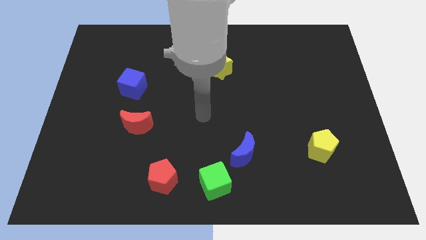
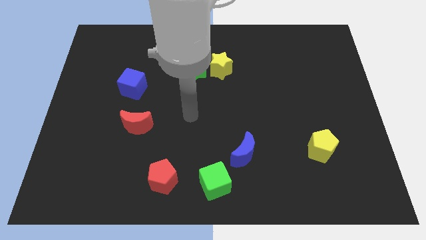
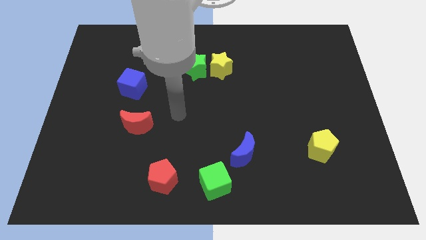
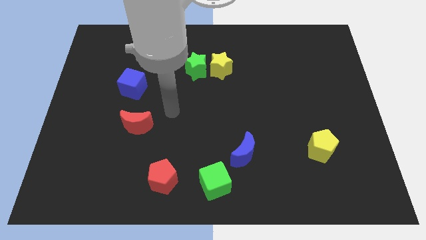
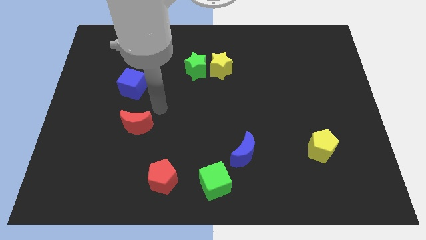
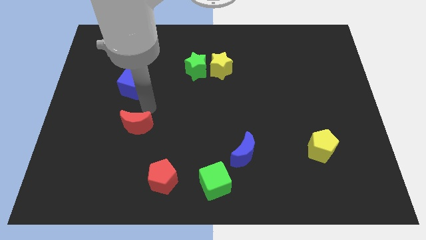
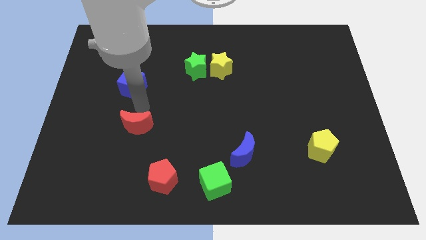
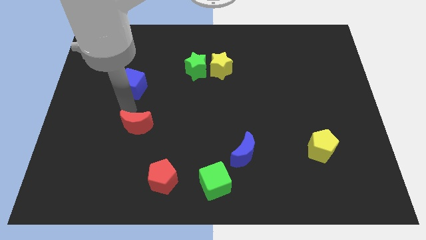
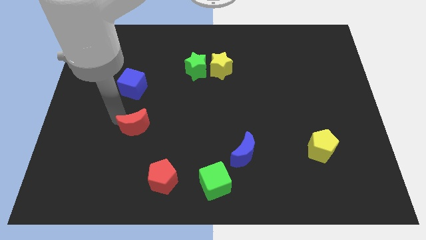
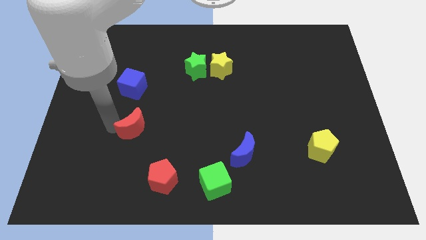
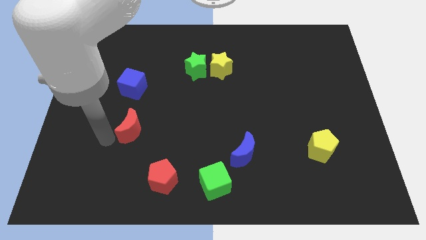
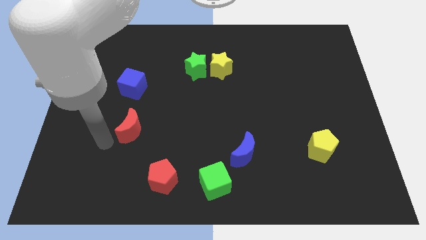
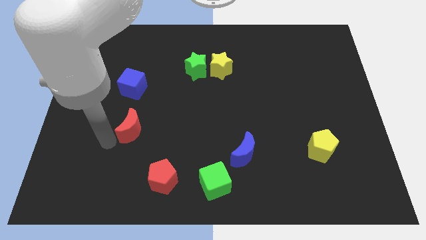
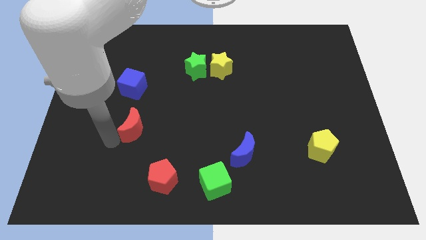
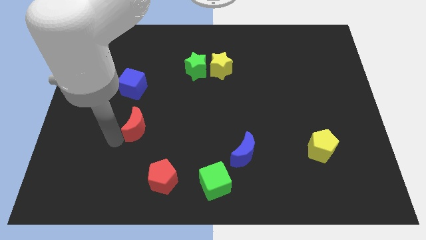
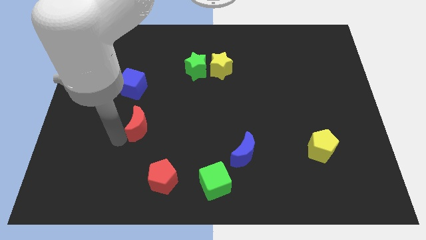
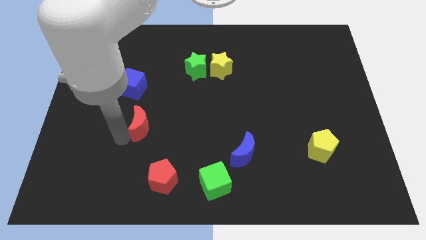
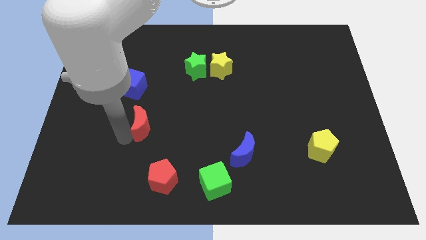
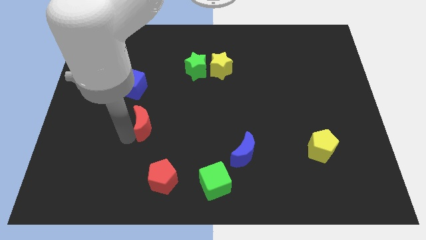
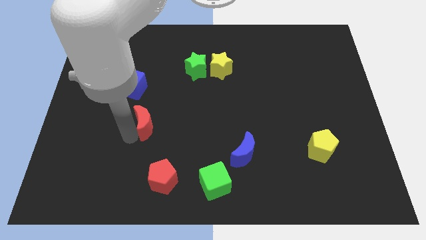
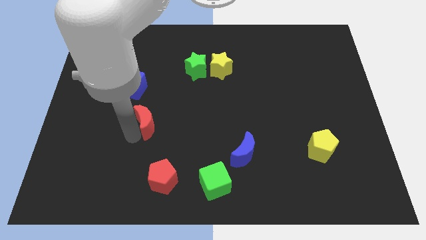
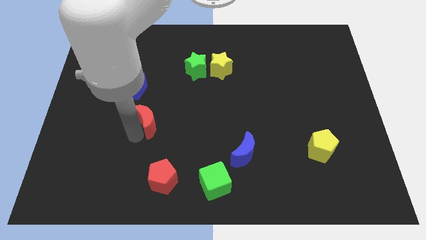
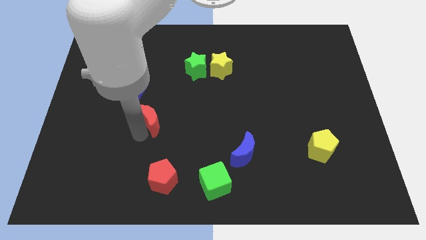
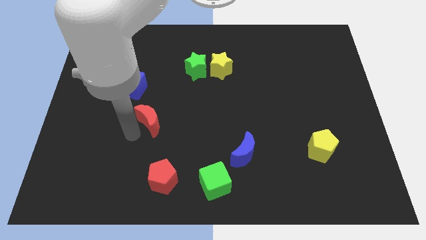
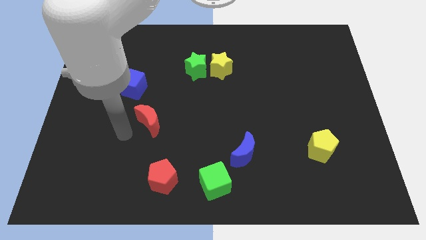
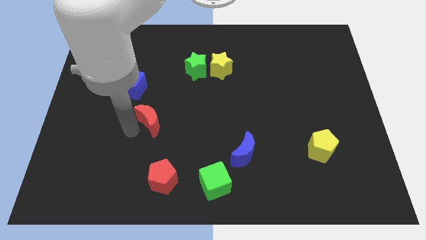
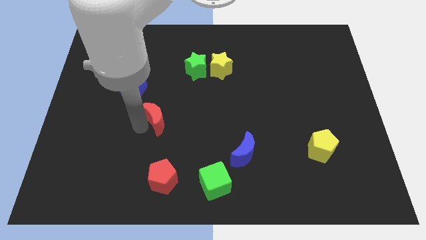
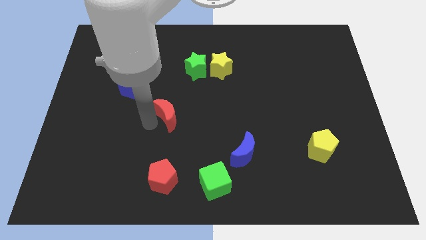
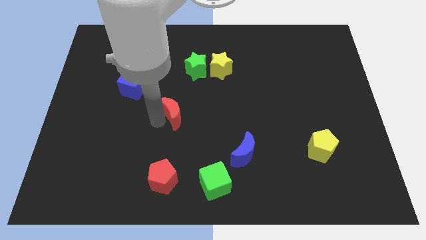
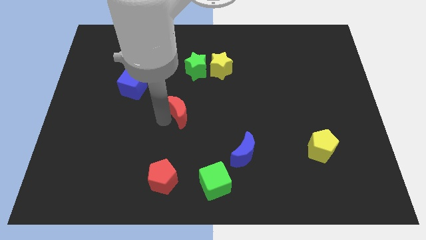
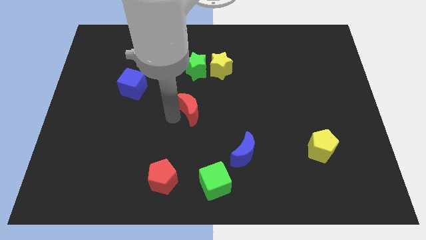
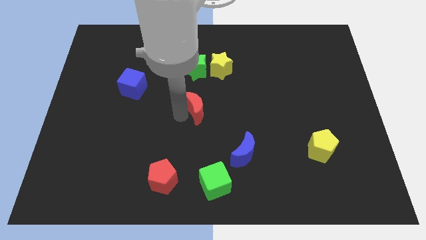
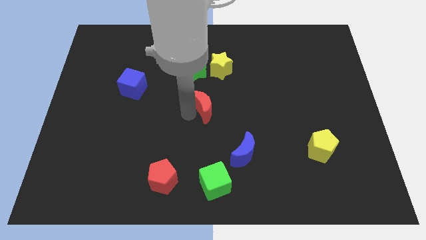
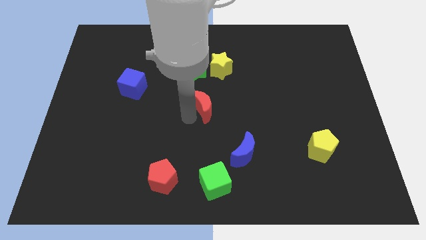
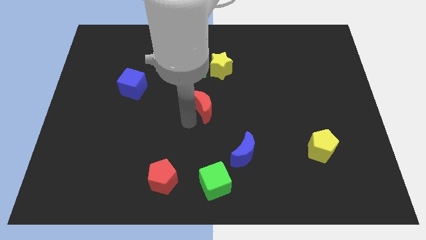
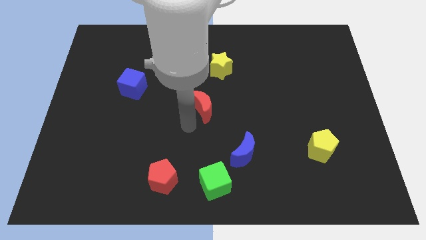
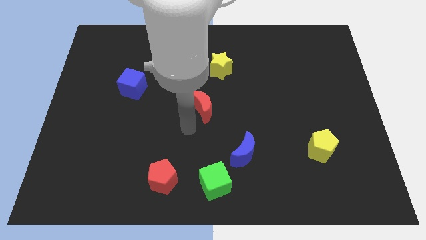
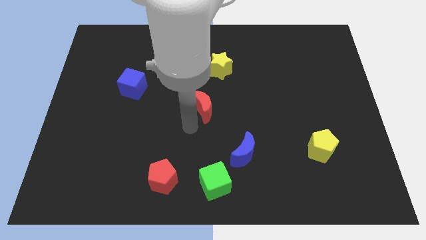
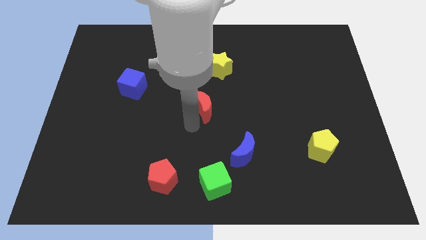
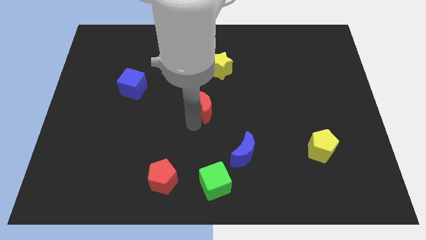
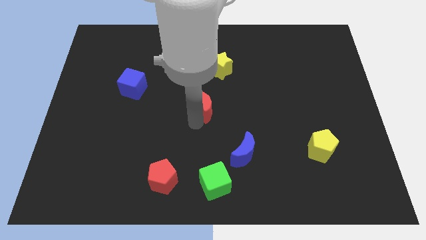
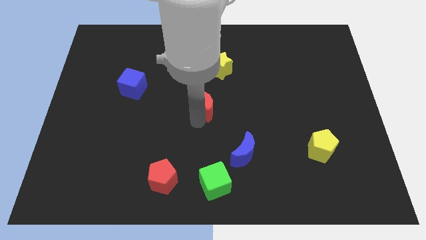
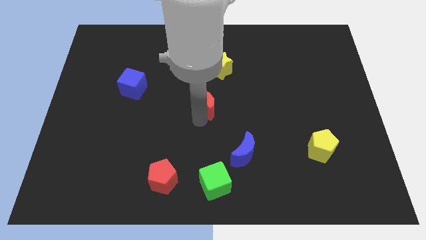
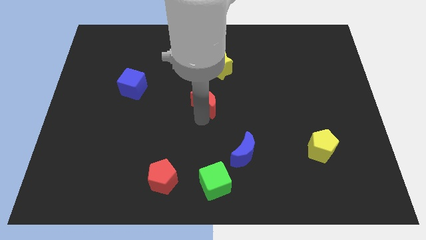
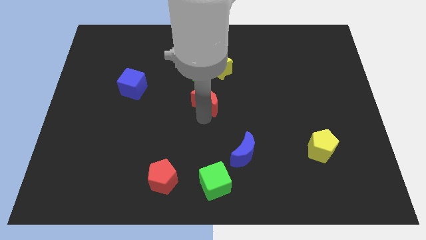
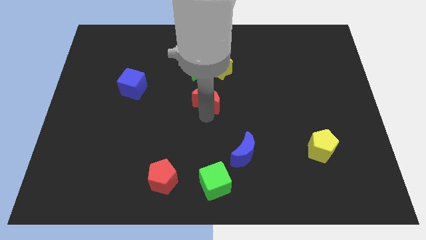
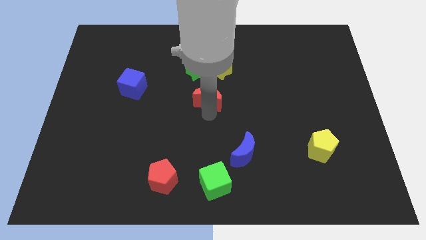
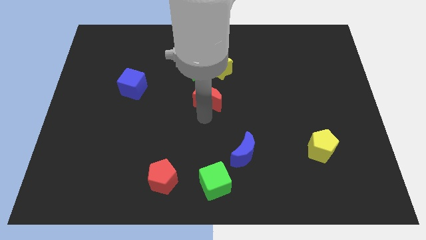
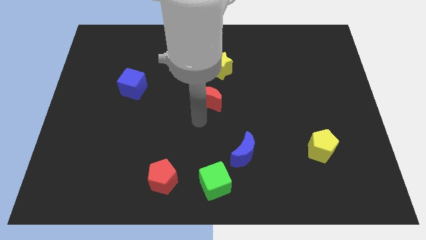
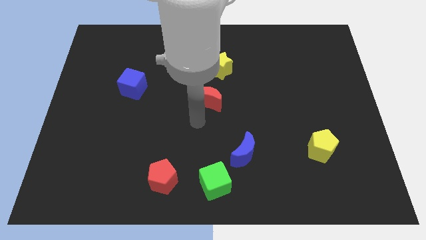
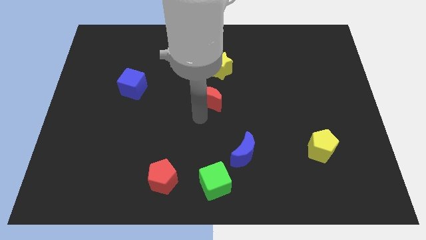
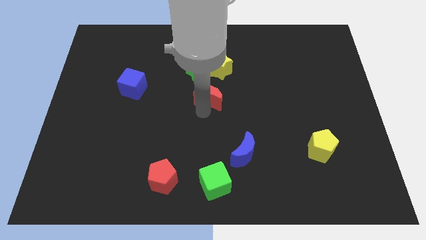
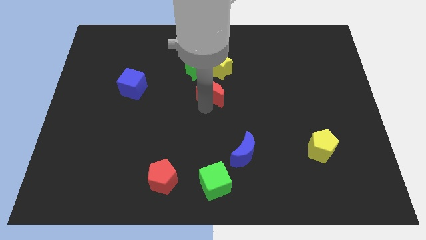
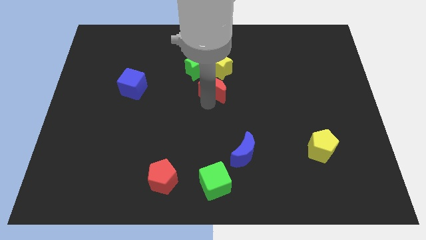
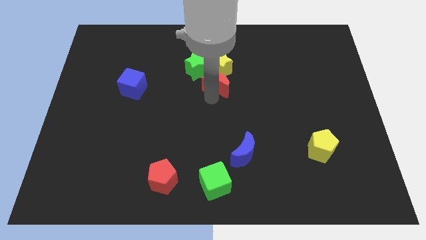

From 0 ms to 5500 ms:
push the red moon towards the yellow star

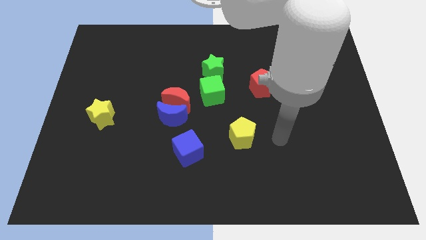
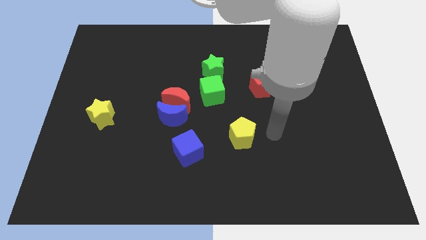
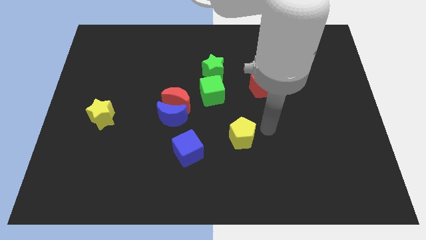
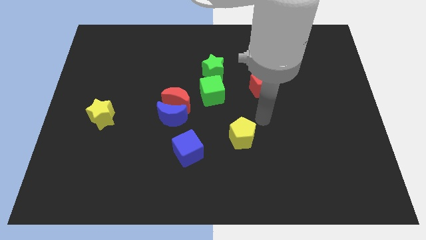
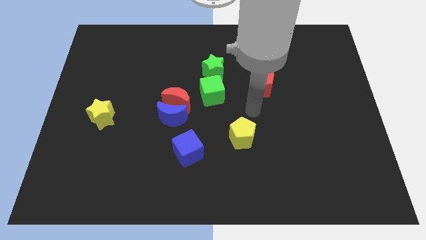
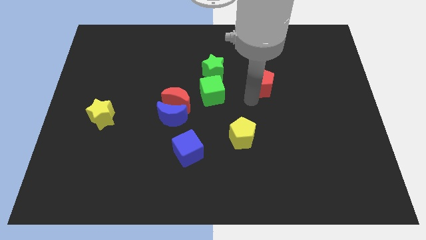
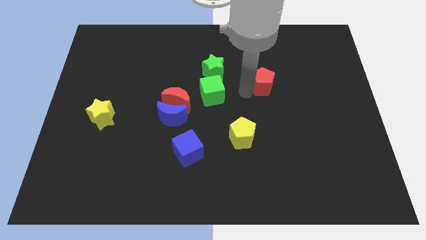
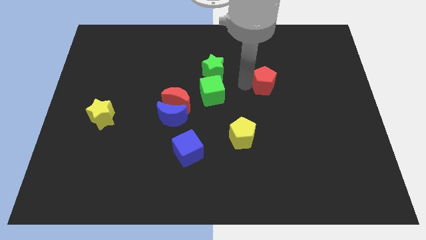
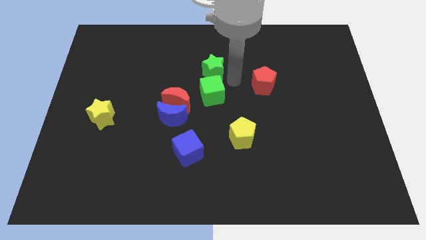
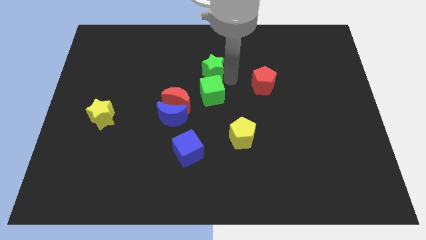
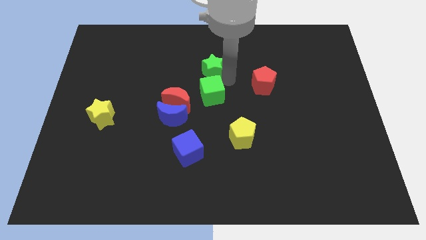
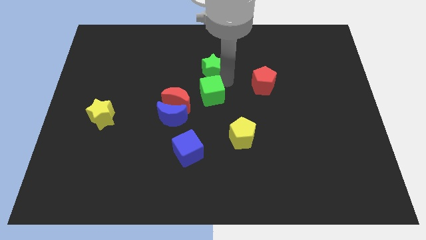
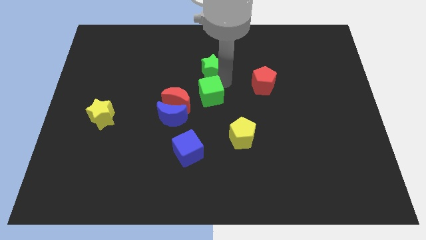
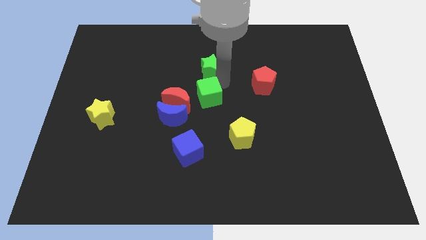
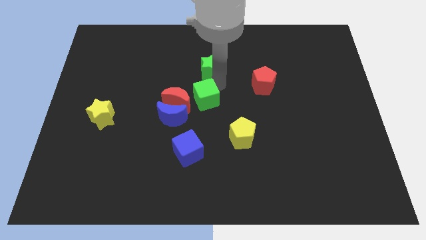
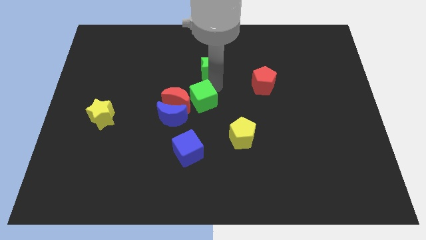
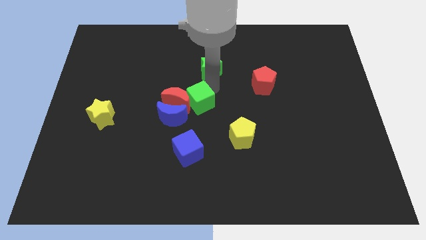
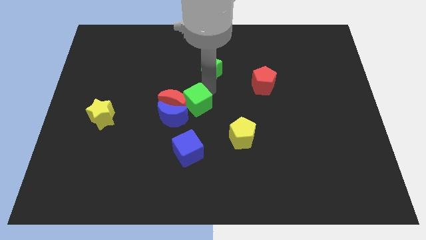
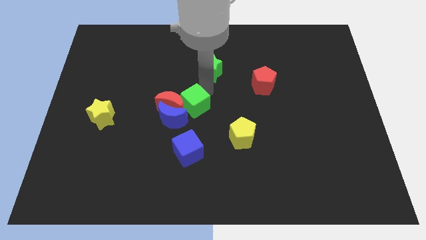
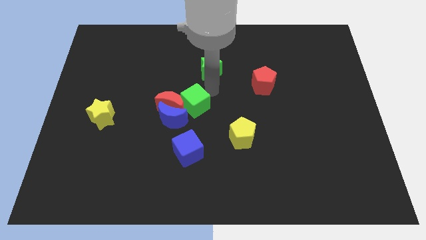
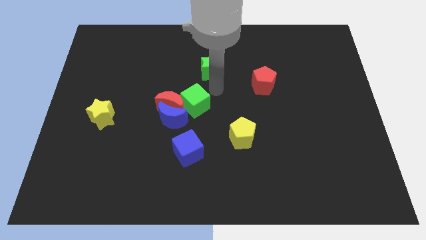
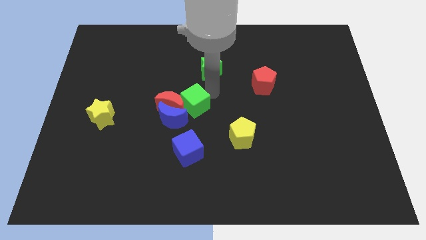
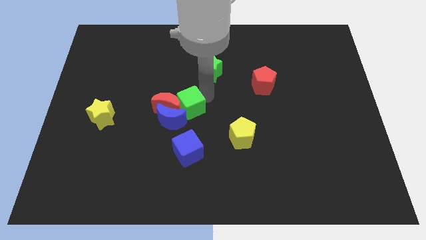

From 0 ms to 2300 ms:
move the green cube next to the blue moon
